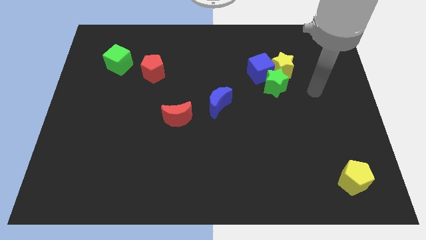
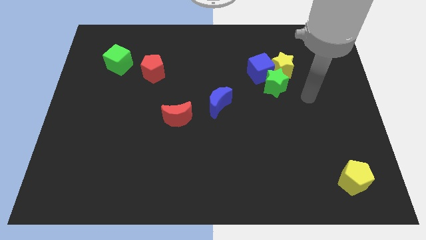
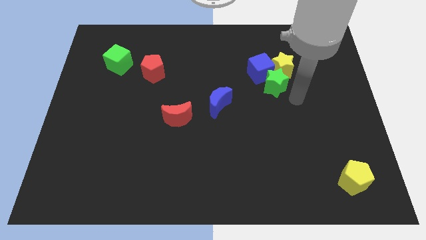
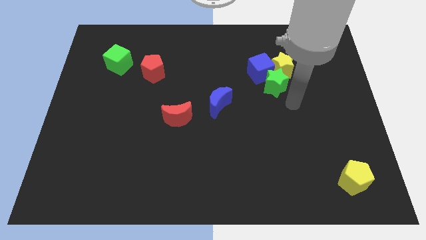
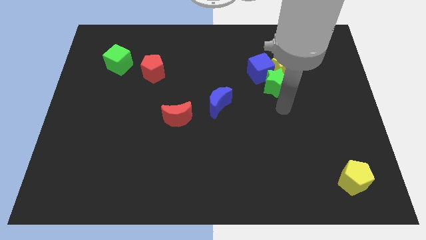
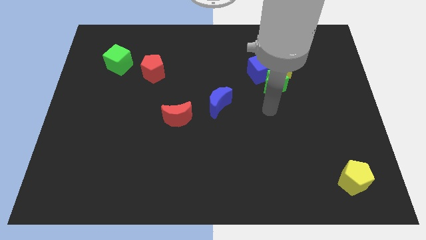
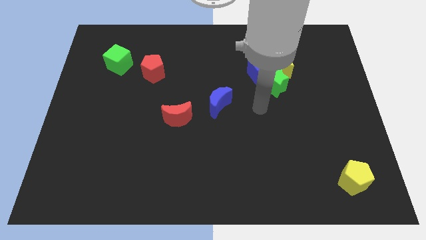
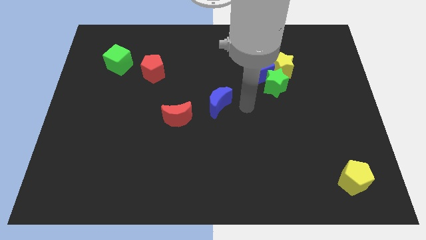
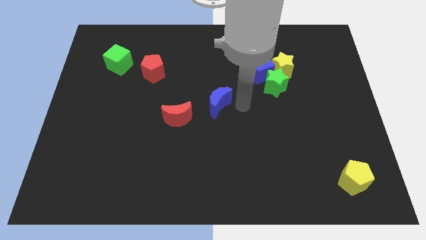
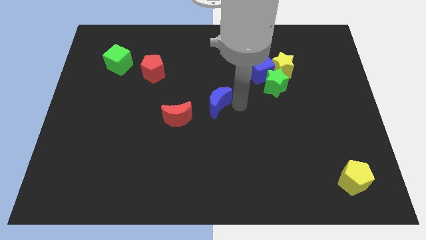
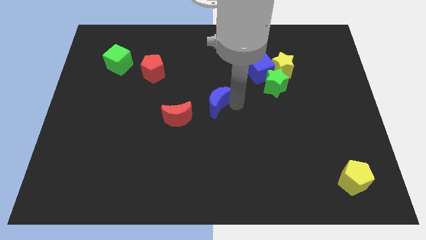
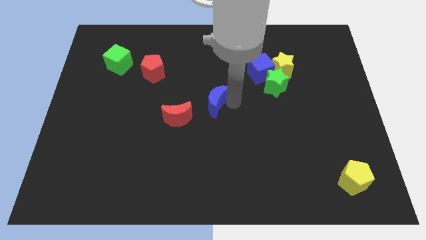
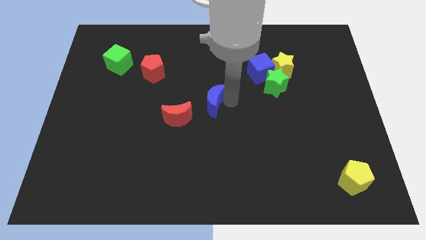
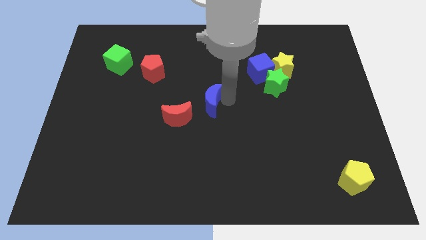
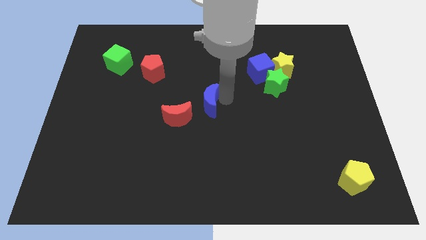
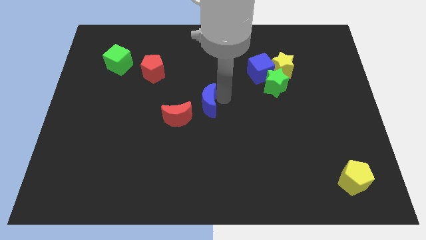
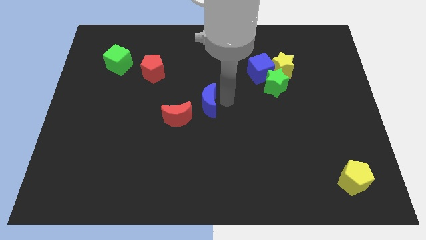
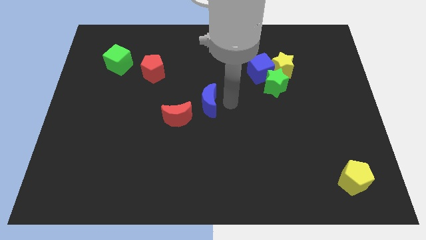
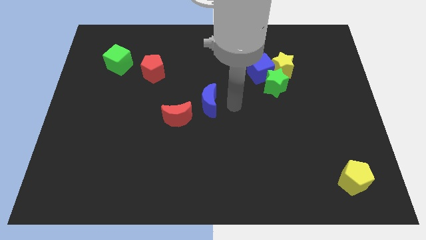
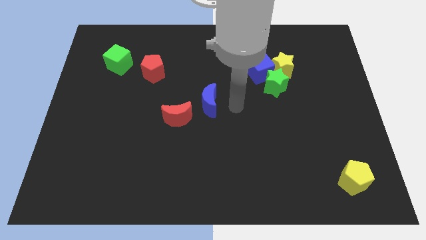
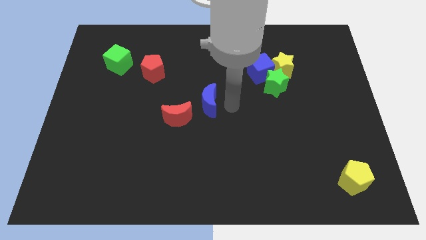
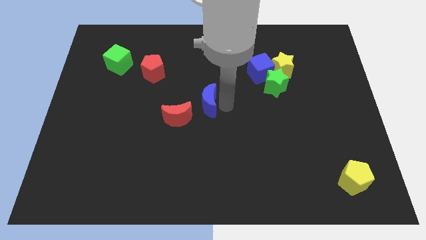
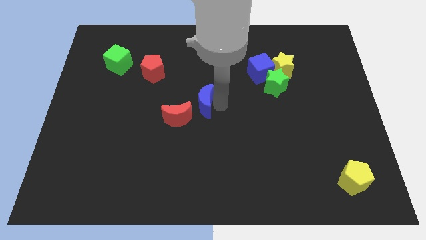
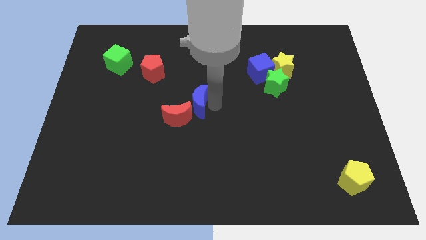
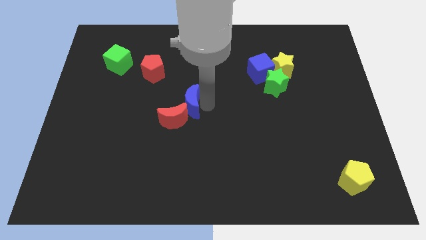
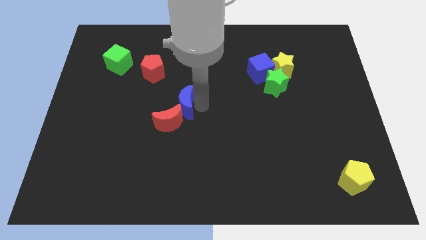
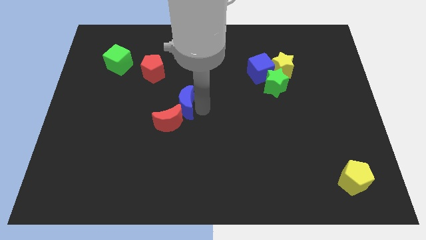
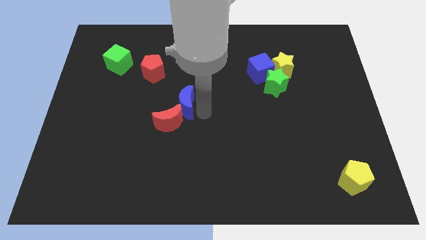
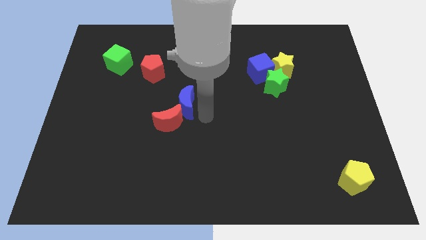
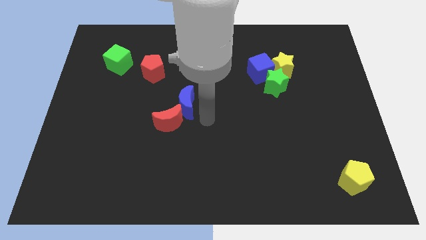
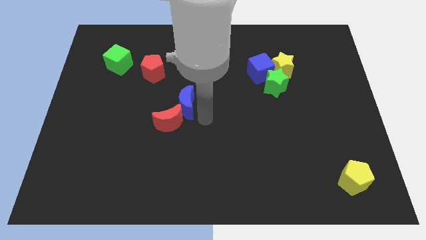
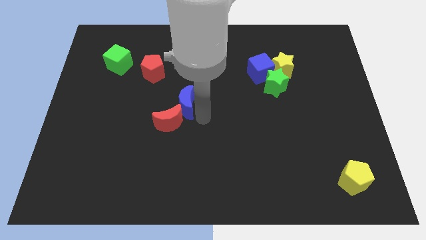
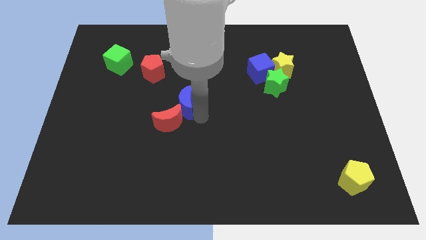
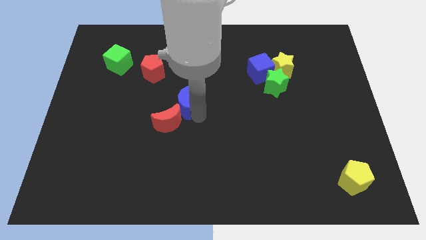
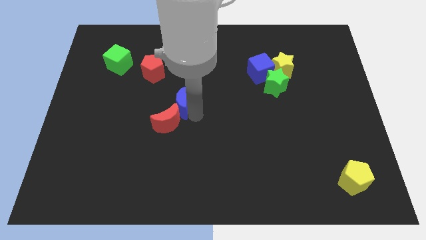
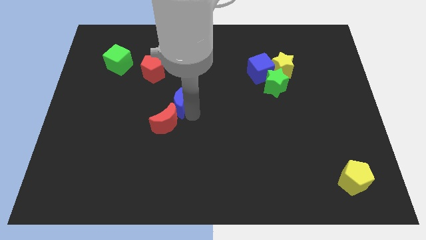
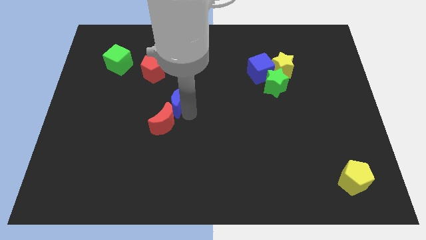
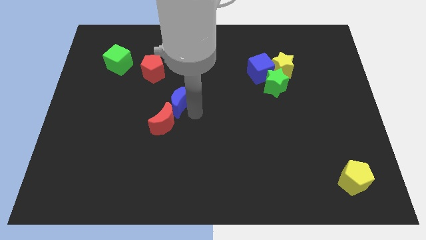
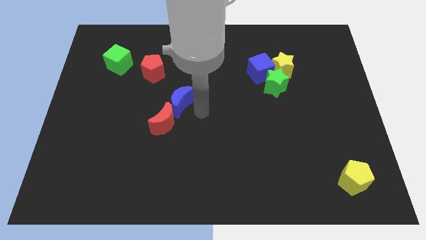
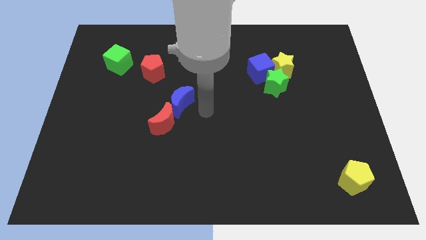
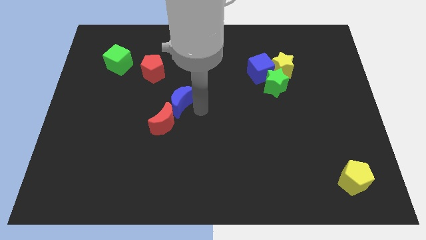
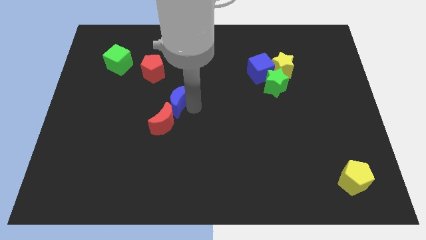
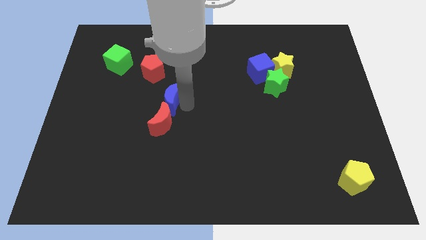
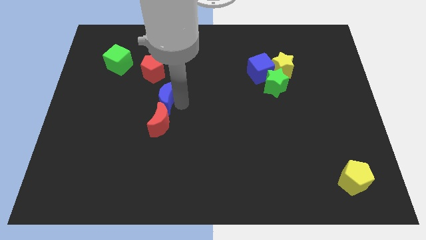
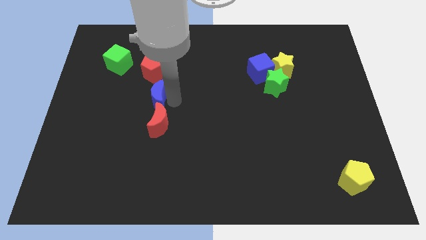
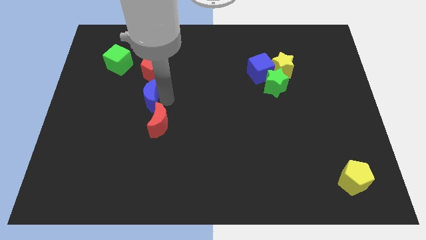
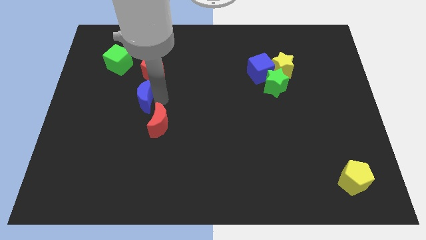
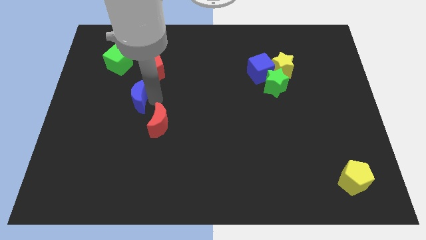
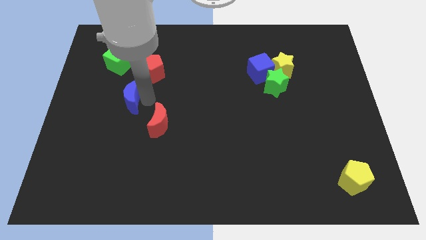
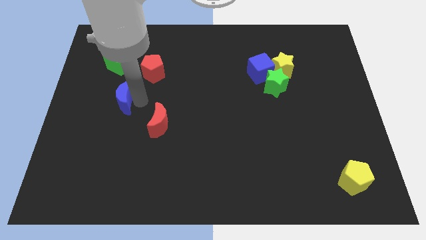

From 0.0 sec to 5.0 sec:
move the blue moon to the bottom of the green cube

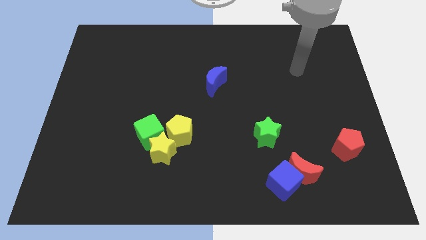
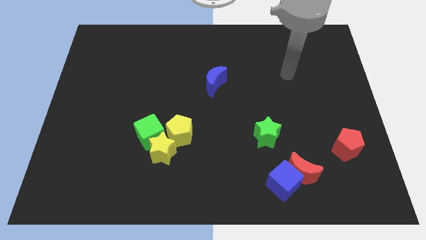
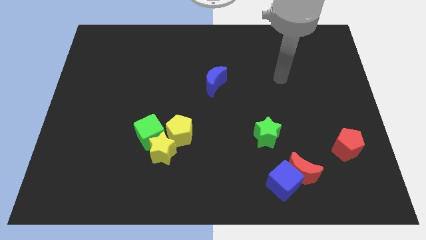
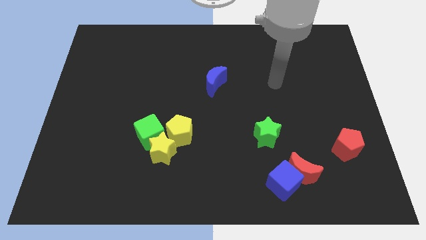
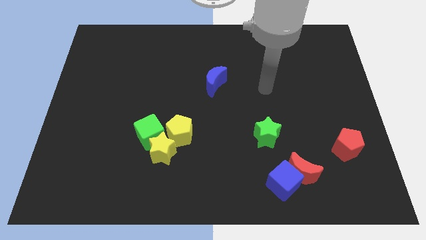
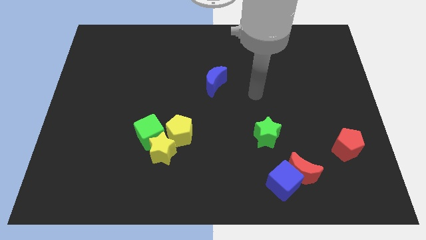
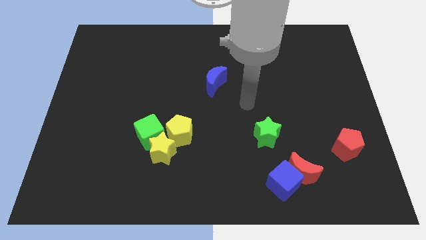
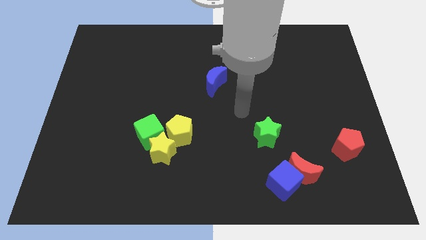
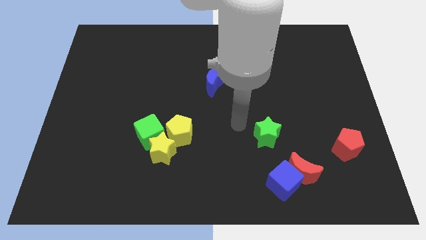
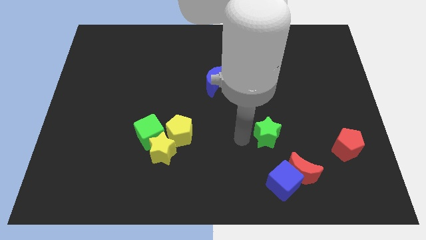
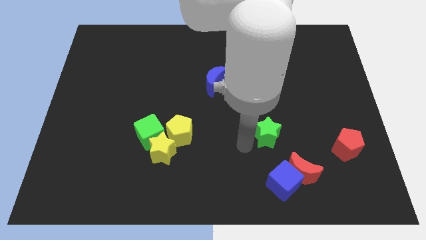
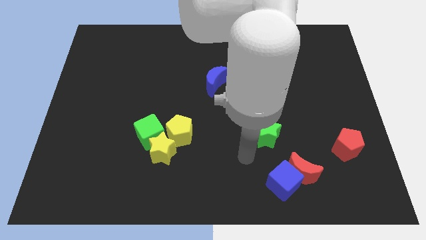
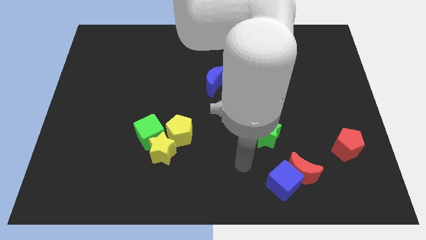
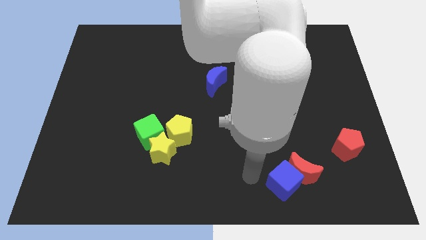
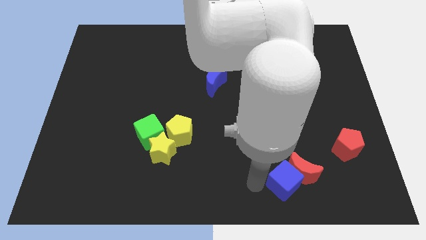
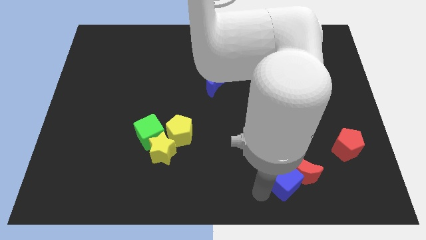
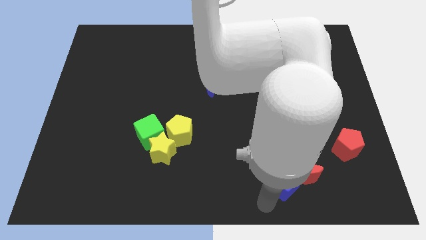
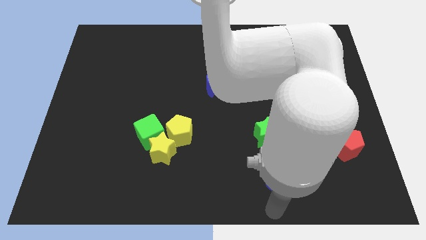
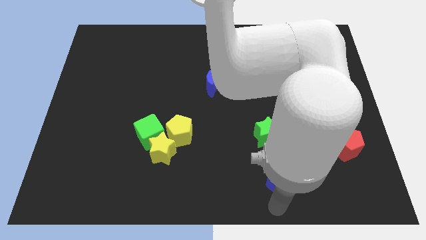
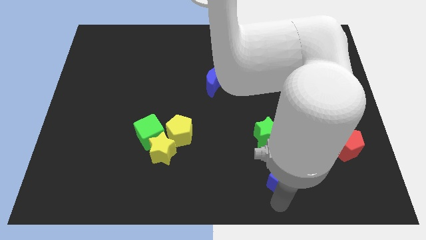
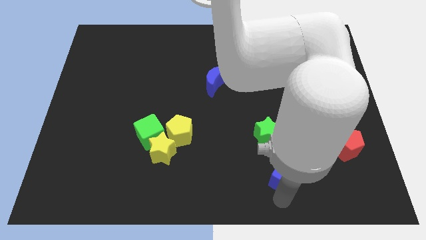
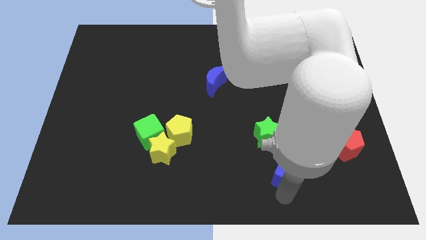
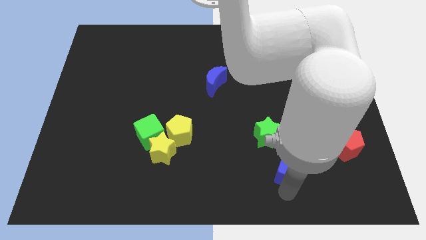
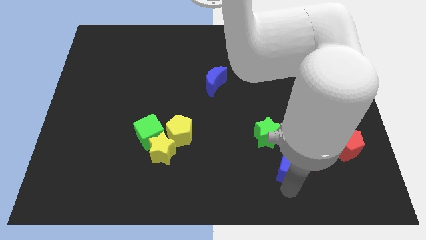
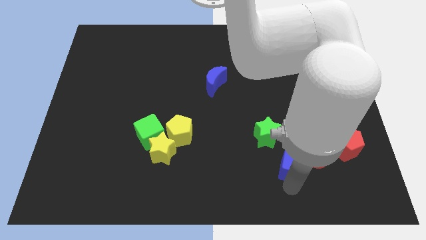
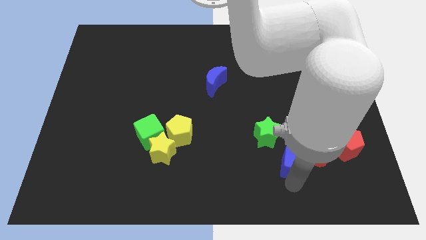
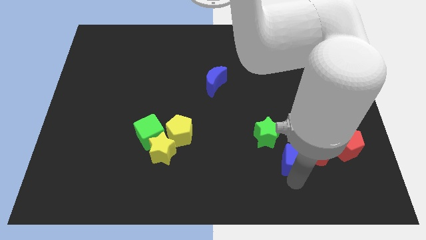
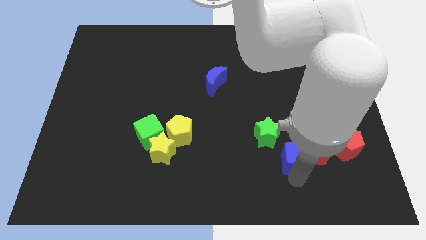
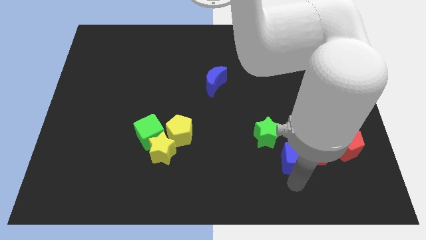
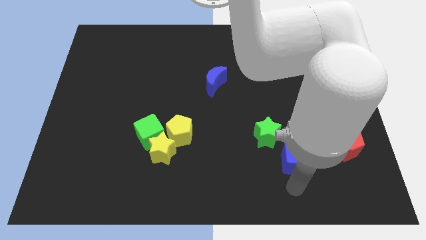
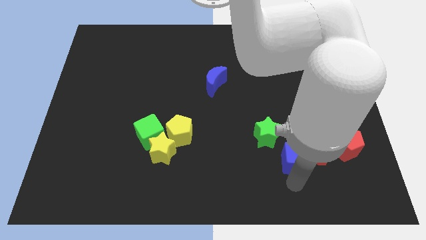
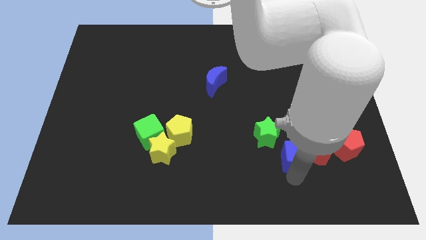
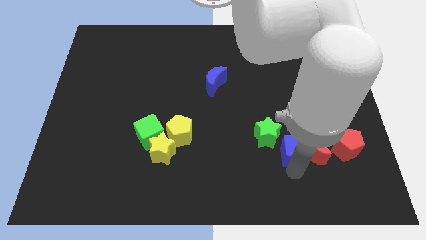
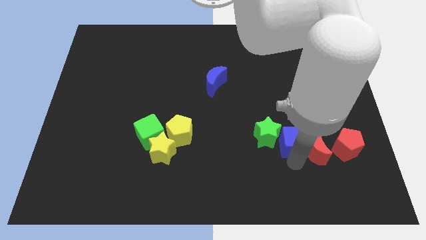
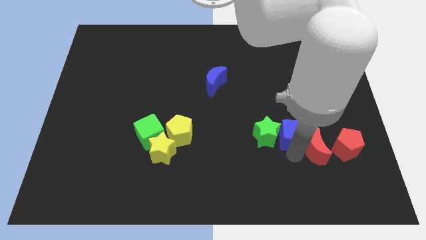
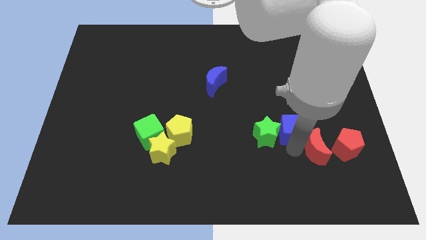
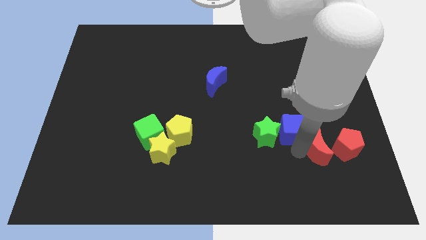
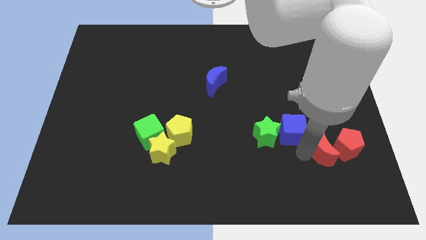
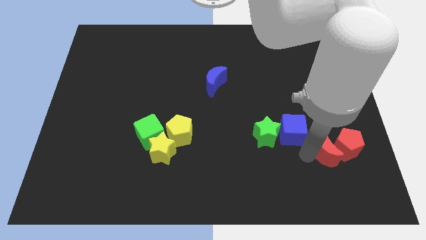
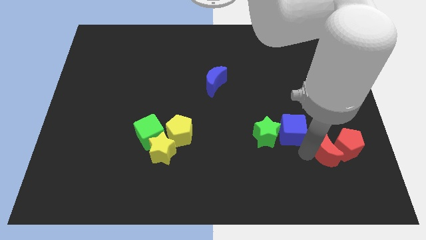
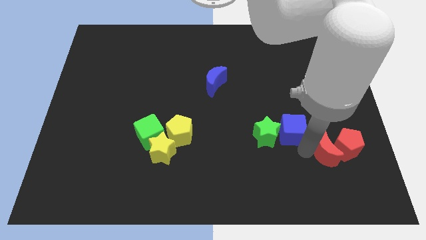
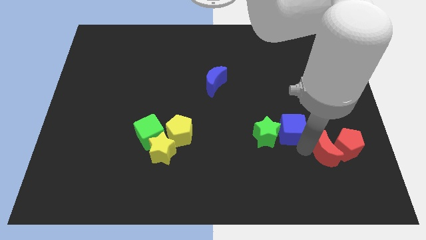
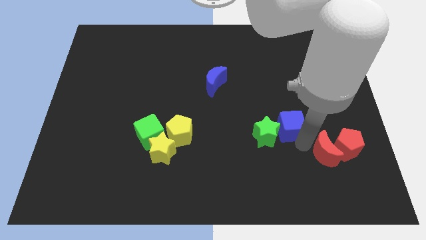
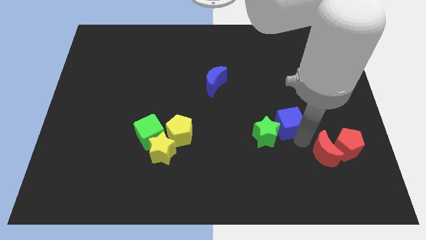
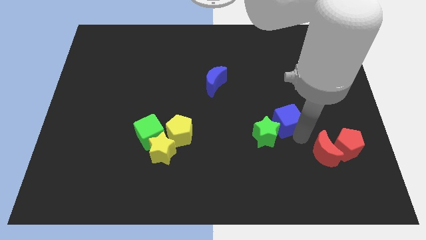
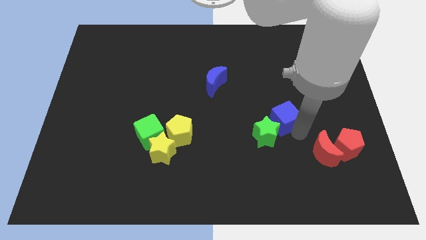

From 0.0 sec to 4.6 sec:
slide the blue cube above the green star
